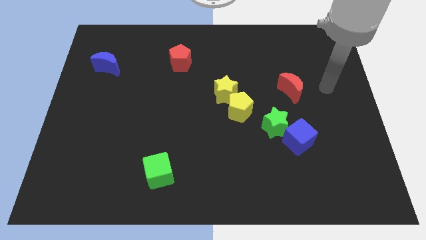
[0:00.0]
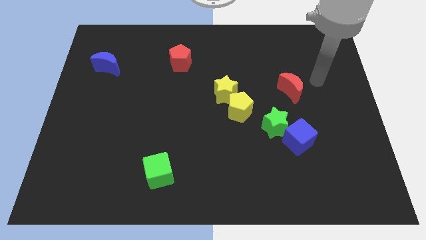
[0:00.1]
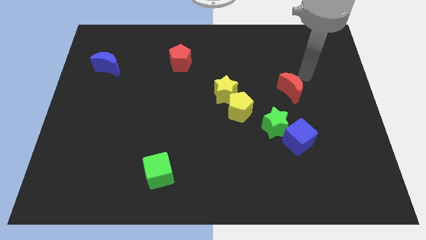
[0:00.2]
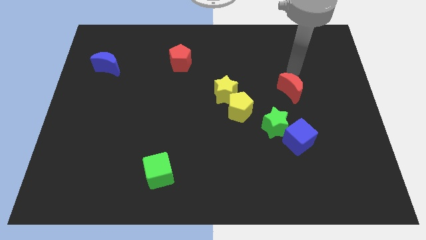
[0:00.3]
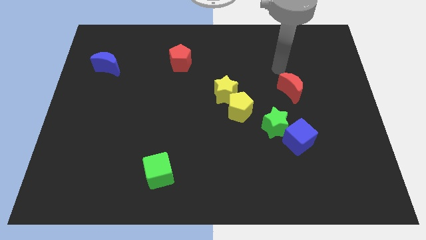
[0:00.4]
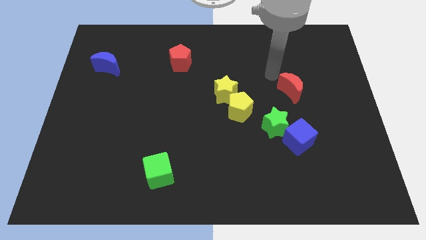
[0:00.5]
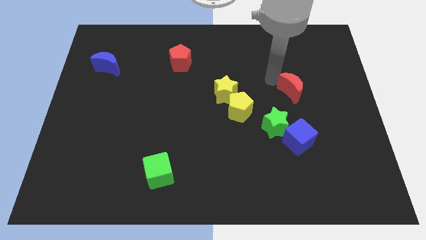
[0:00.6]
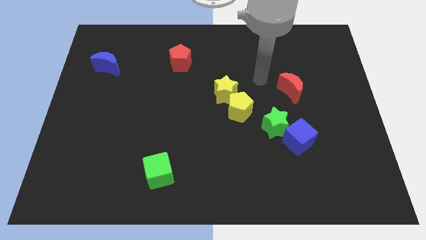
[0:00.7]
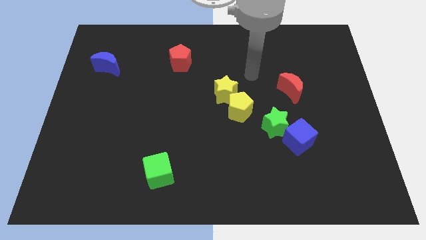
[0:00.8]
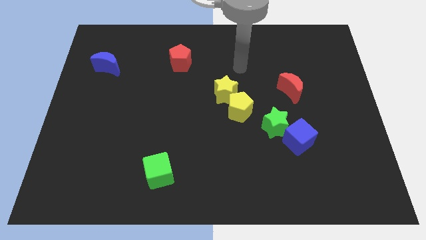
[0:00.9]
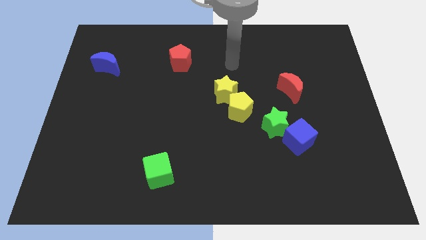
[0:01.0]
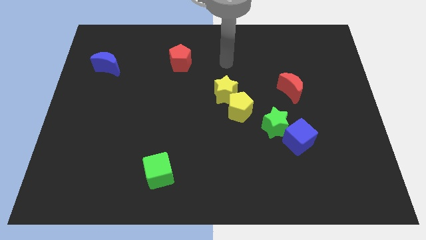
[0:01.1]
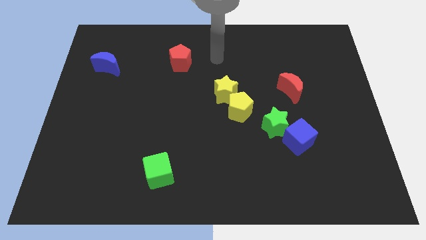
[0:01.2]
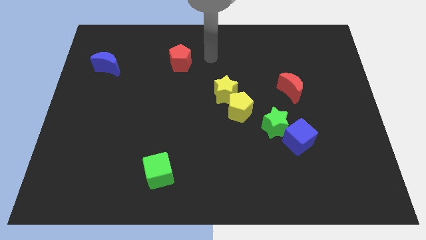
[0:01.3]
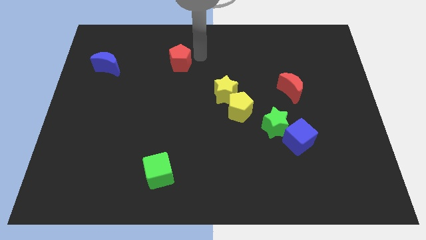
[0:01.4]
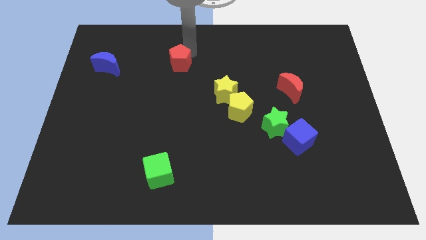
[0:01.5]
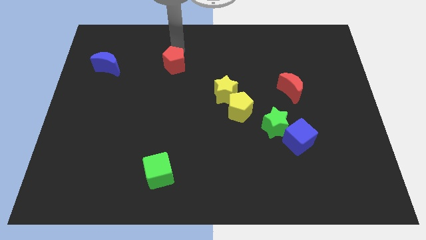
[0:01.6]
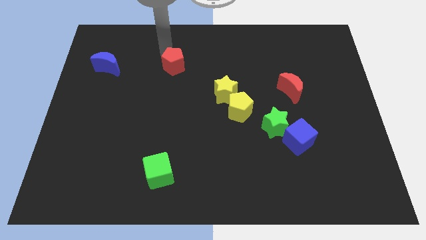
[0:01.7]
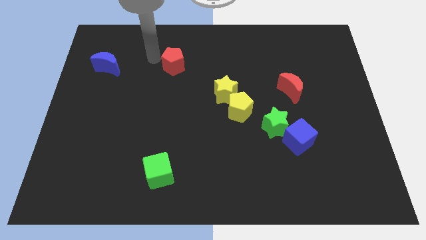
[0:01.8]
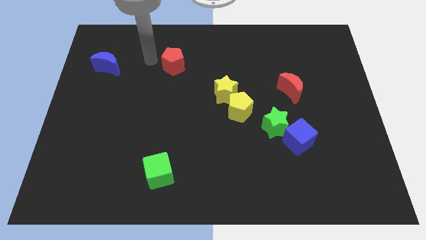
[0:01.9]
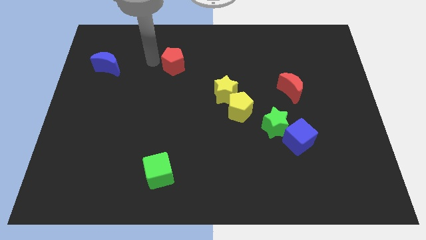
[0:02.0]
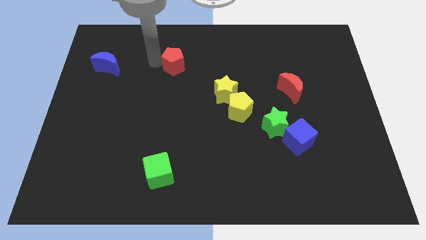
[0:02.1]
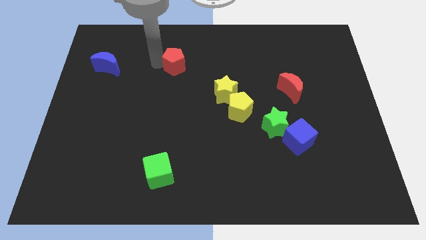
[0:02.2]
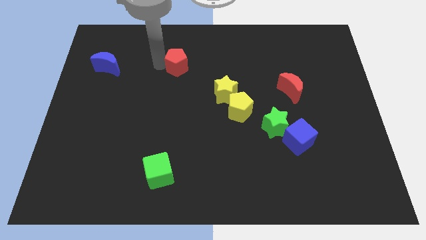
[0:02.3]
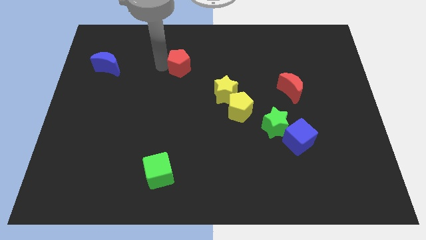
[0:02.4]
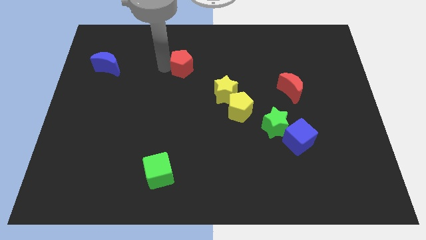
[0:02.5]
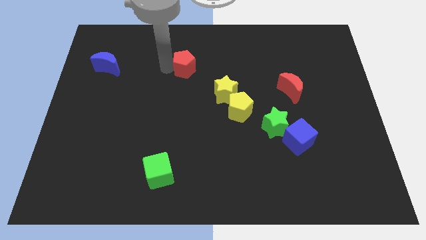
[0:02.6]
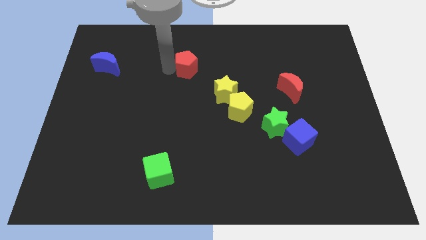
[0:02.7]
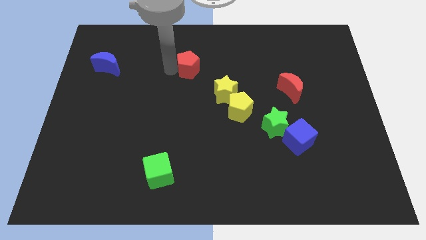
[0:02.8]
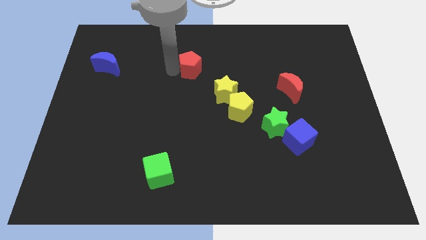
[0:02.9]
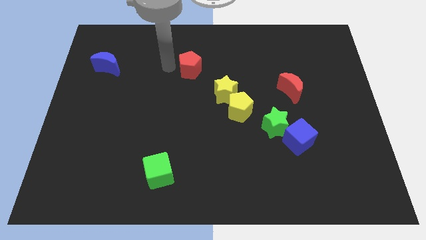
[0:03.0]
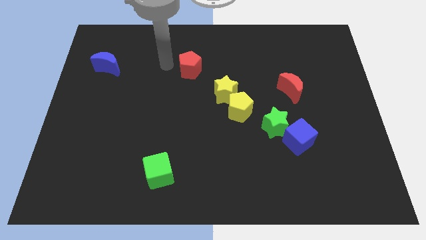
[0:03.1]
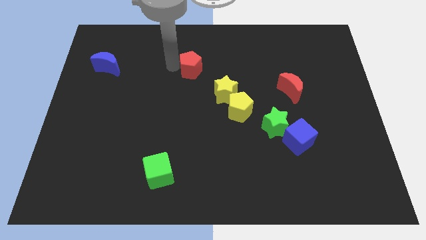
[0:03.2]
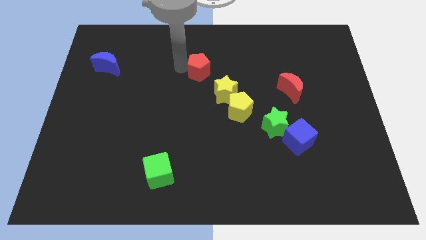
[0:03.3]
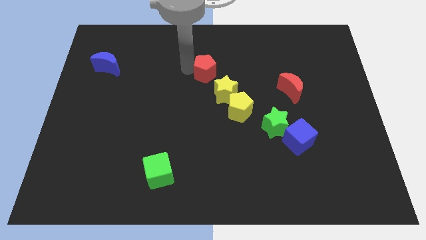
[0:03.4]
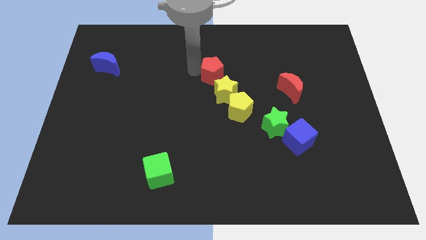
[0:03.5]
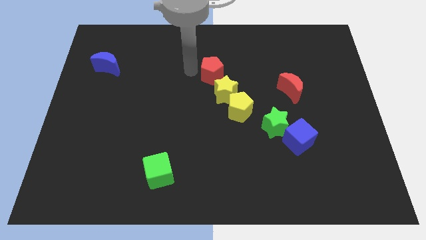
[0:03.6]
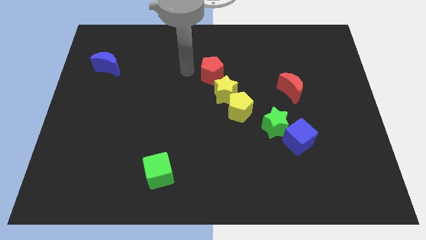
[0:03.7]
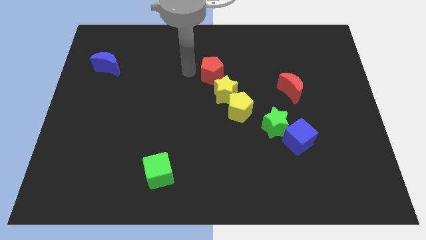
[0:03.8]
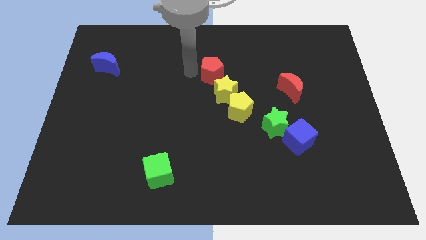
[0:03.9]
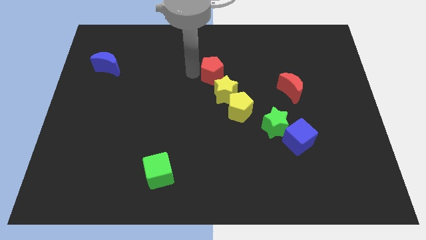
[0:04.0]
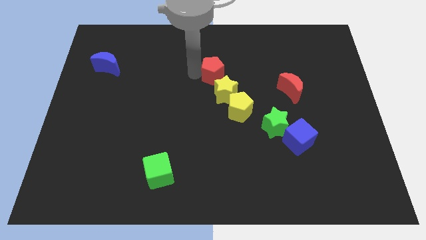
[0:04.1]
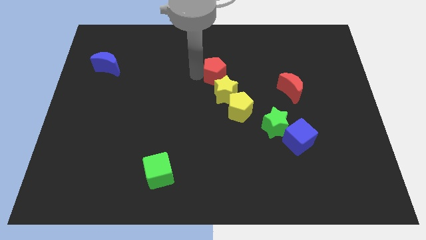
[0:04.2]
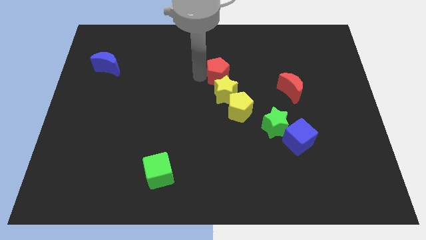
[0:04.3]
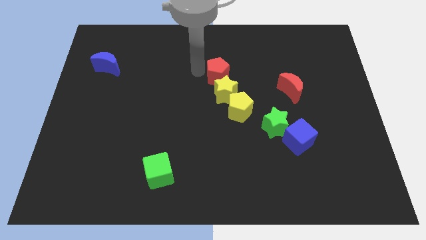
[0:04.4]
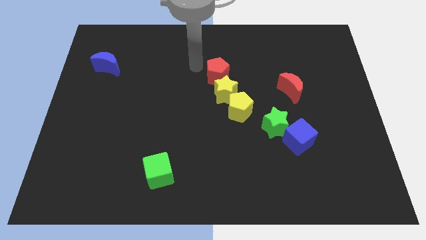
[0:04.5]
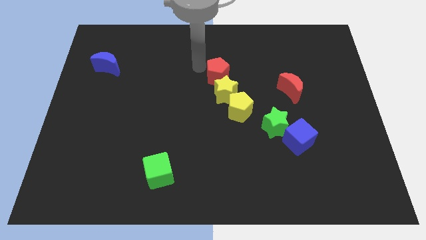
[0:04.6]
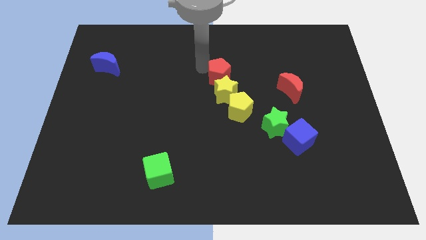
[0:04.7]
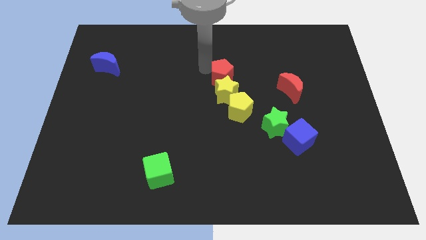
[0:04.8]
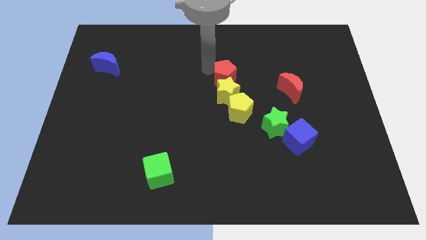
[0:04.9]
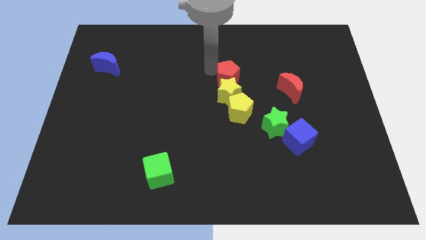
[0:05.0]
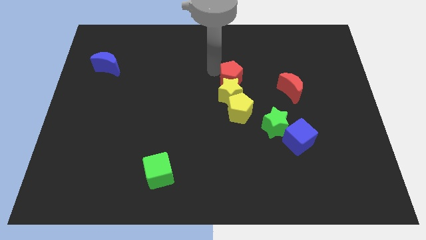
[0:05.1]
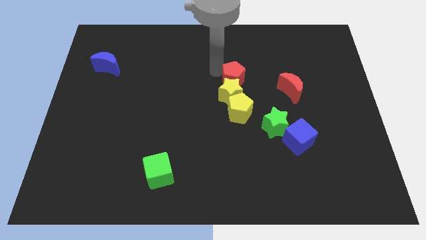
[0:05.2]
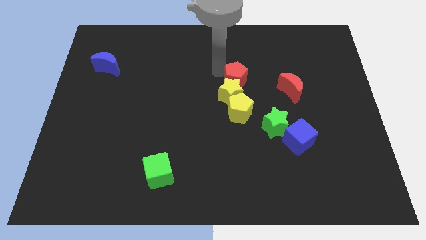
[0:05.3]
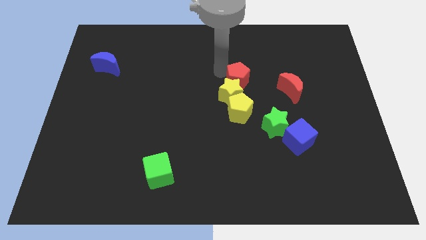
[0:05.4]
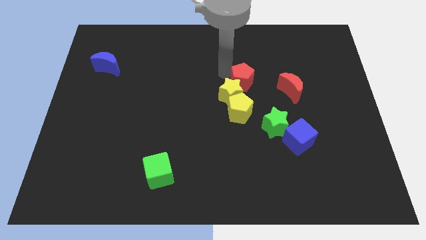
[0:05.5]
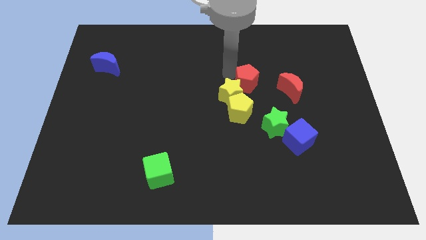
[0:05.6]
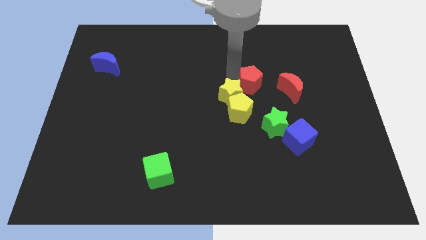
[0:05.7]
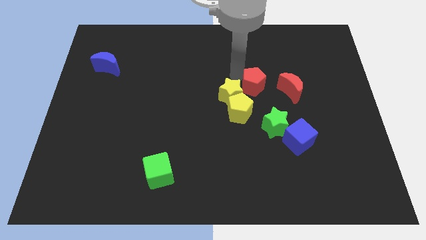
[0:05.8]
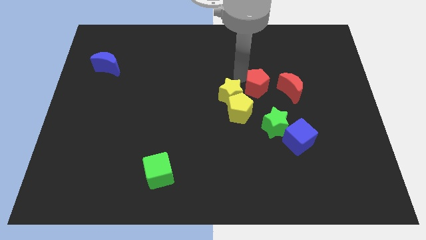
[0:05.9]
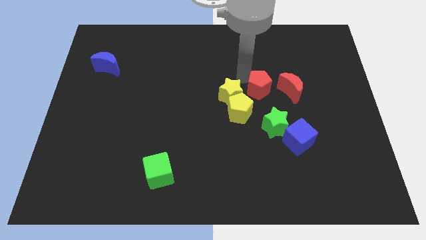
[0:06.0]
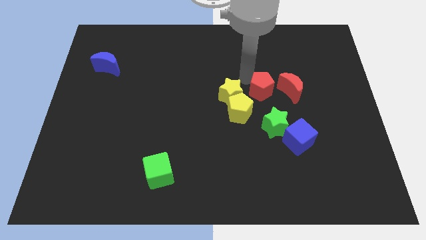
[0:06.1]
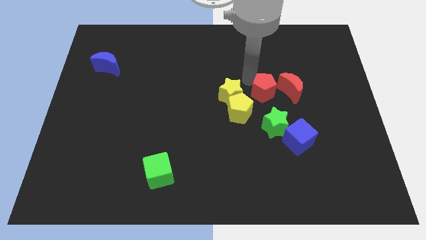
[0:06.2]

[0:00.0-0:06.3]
push the red pentagon to the bottom left side of the red moon

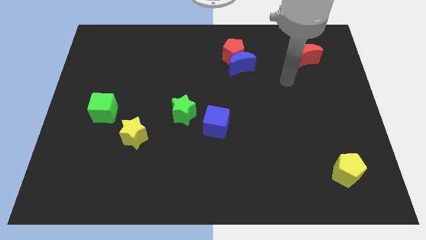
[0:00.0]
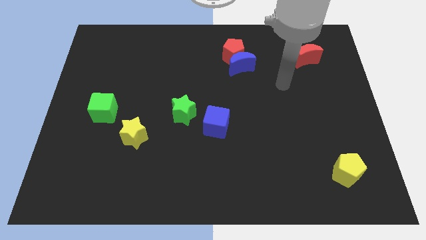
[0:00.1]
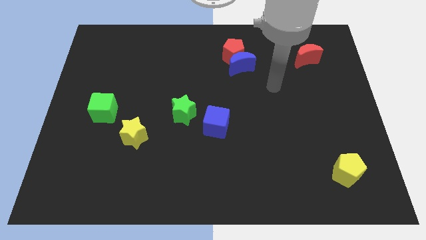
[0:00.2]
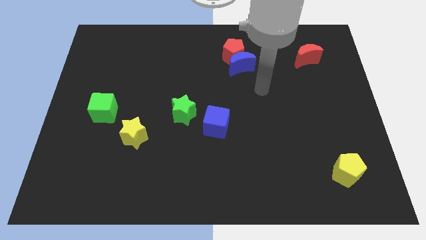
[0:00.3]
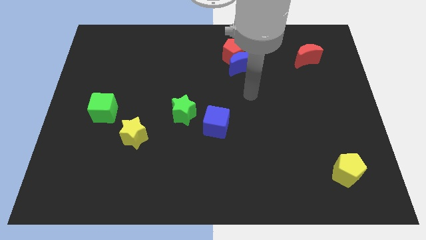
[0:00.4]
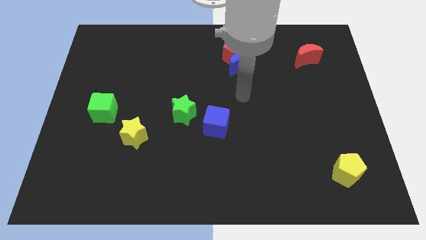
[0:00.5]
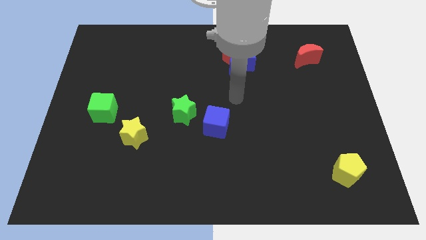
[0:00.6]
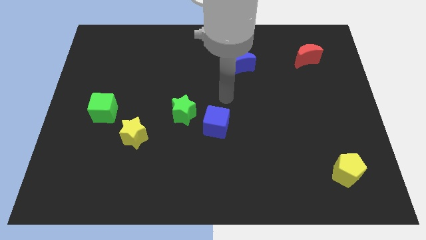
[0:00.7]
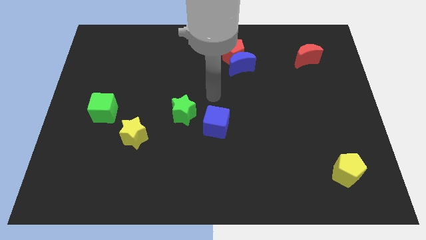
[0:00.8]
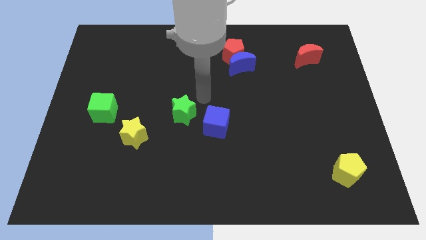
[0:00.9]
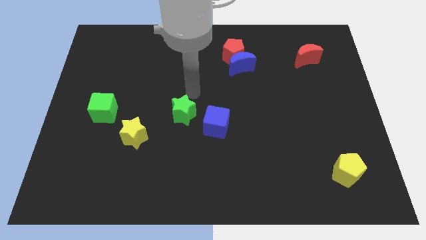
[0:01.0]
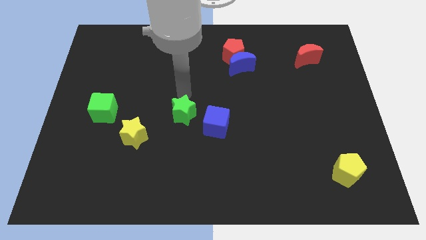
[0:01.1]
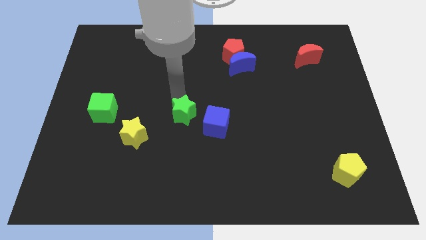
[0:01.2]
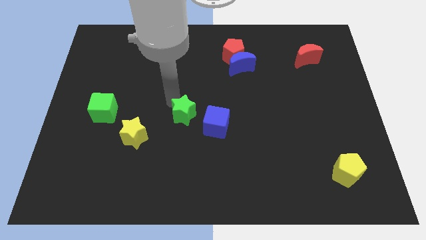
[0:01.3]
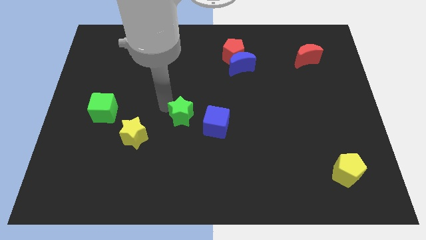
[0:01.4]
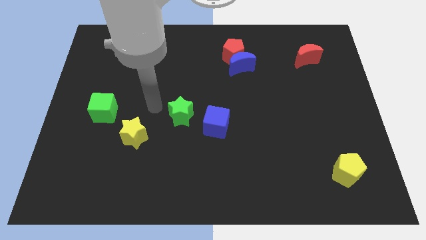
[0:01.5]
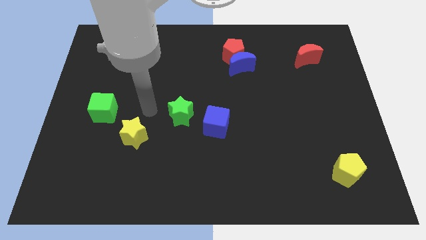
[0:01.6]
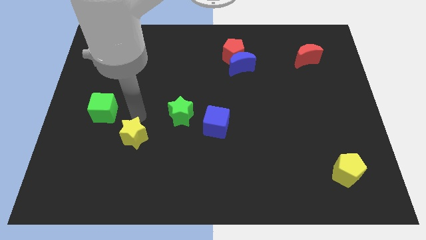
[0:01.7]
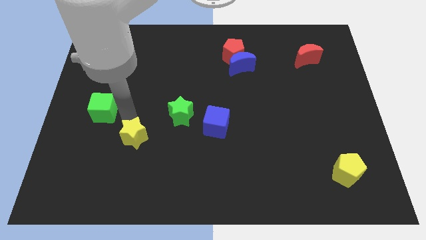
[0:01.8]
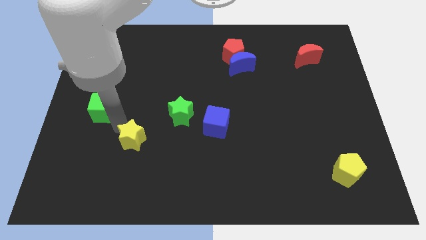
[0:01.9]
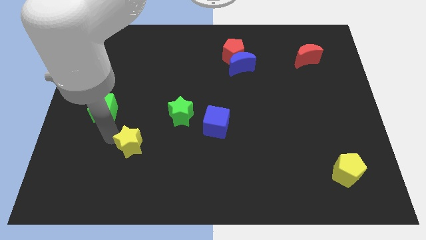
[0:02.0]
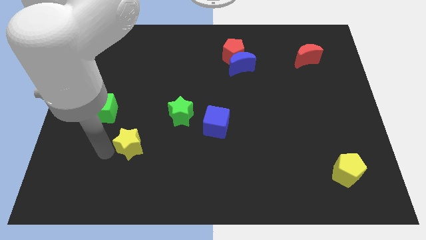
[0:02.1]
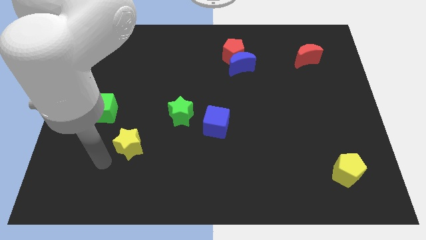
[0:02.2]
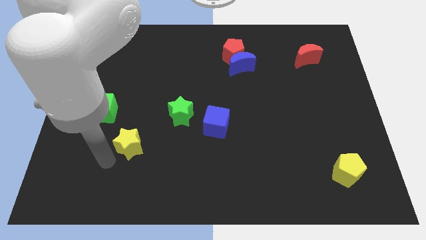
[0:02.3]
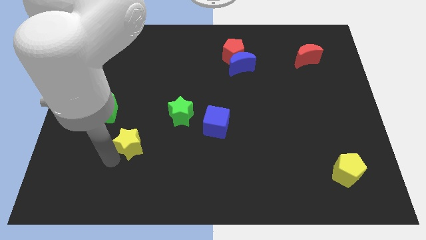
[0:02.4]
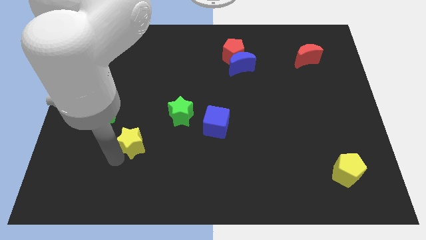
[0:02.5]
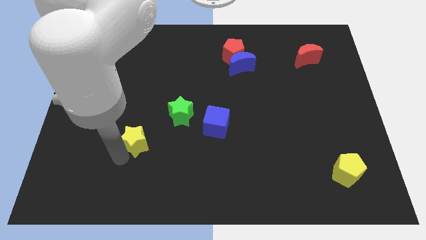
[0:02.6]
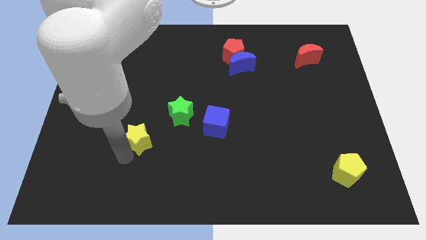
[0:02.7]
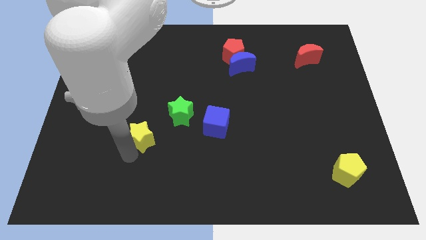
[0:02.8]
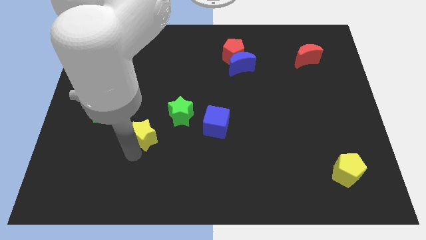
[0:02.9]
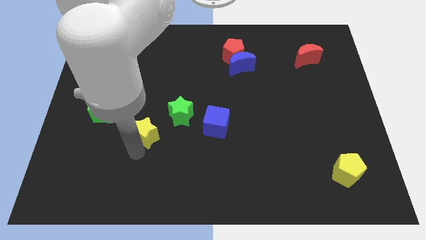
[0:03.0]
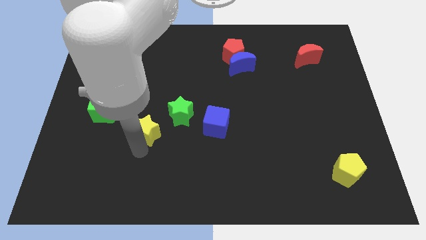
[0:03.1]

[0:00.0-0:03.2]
slide the yellow star left of the blue cube
